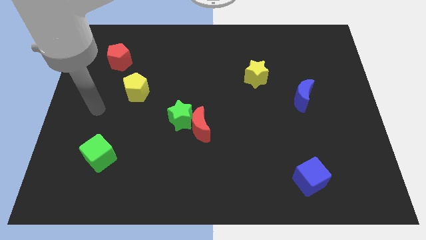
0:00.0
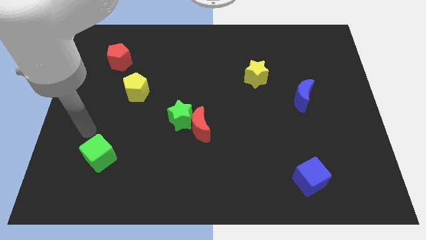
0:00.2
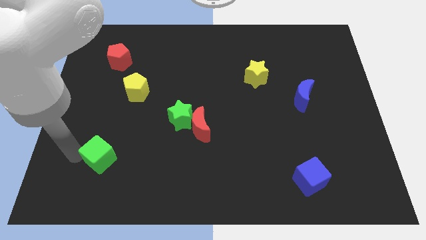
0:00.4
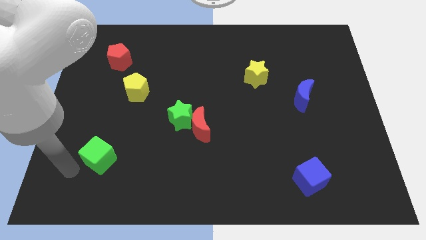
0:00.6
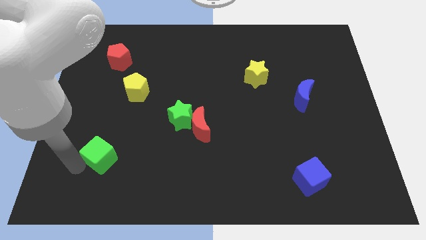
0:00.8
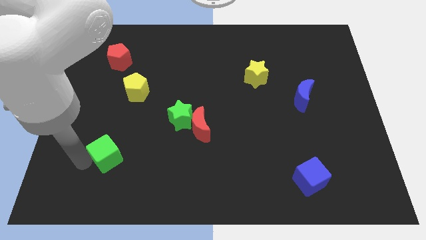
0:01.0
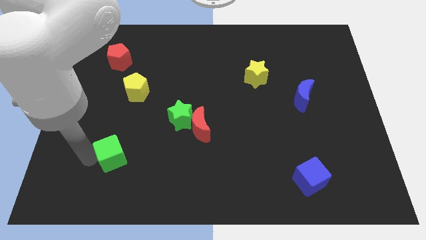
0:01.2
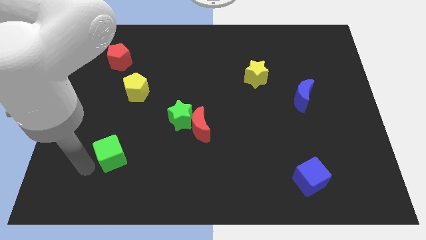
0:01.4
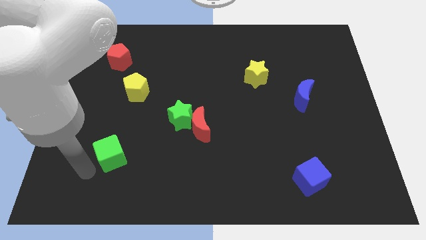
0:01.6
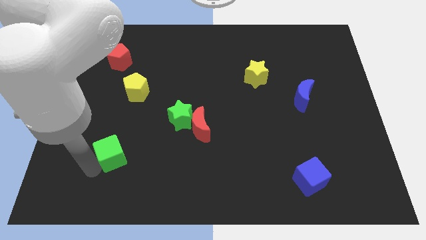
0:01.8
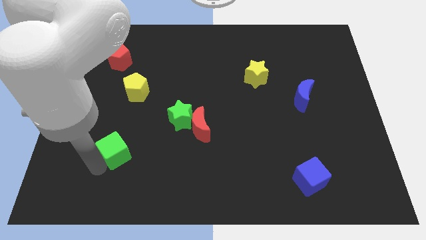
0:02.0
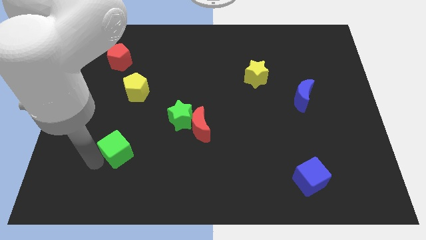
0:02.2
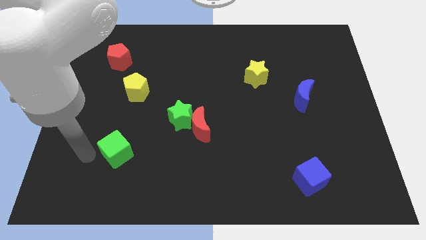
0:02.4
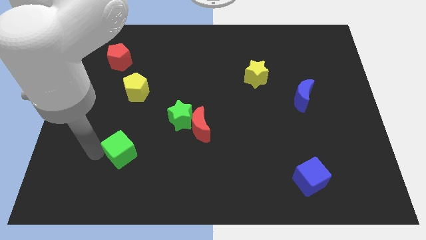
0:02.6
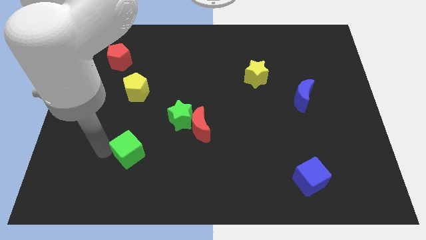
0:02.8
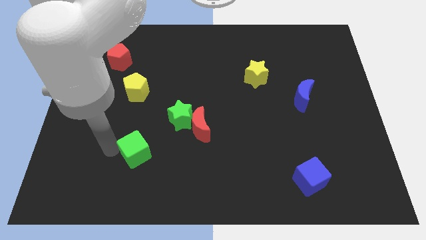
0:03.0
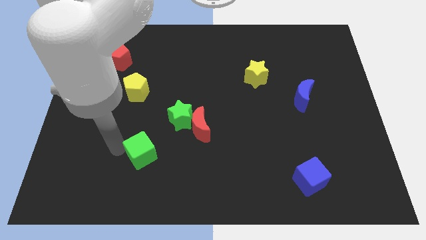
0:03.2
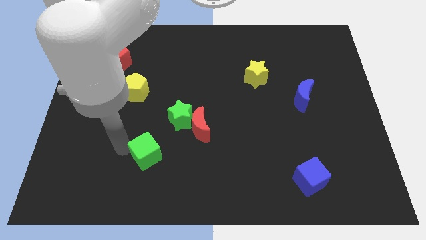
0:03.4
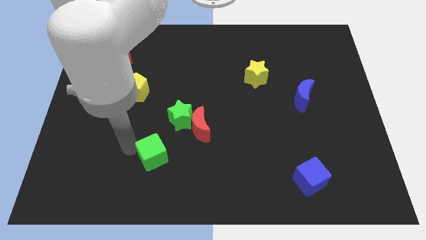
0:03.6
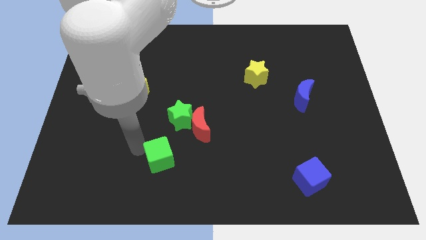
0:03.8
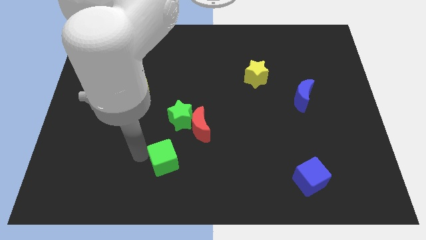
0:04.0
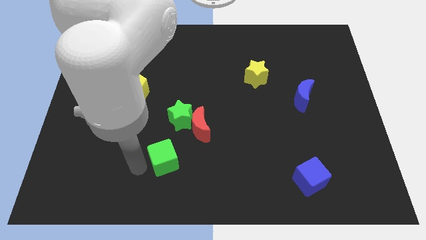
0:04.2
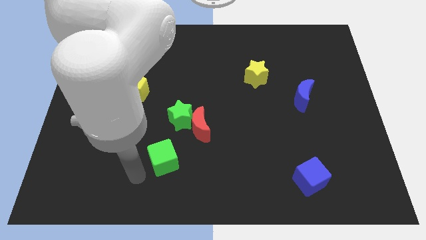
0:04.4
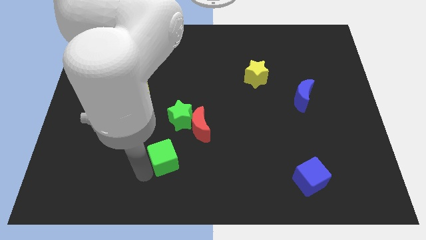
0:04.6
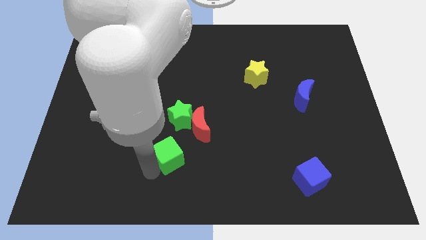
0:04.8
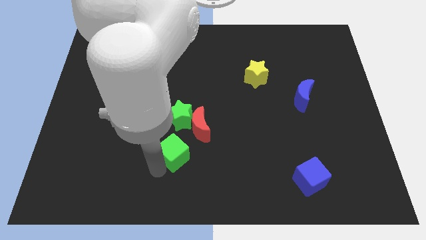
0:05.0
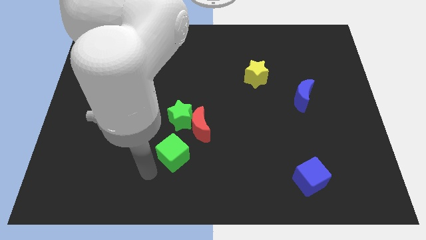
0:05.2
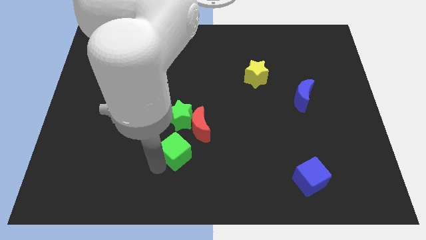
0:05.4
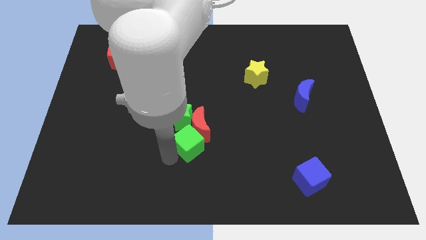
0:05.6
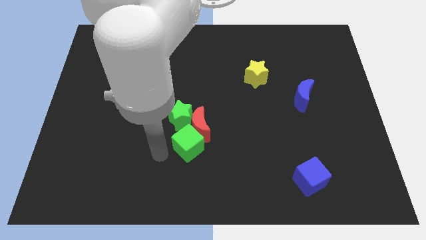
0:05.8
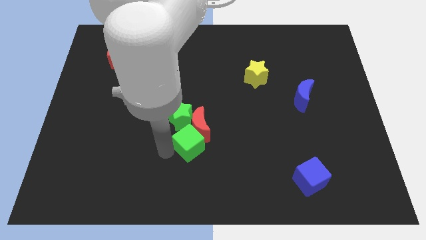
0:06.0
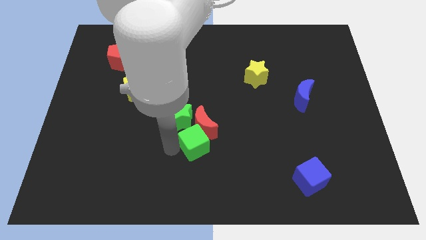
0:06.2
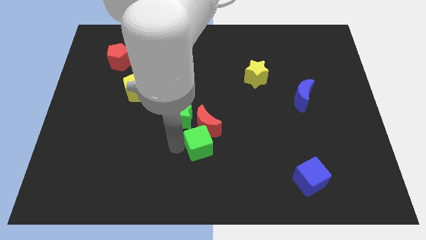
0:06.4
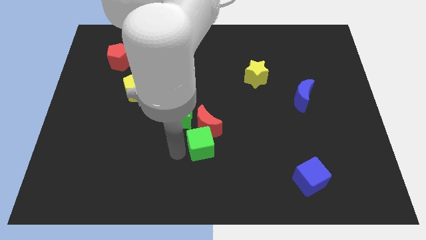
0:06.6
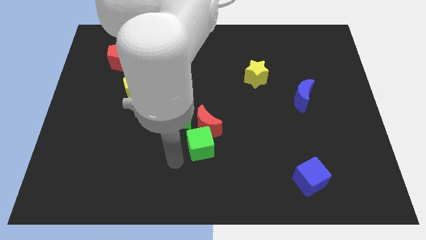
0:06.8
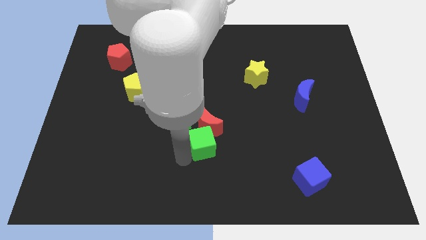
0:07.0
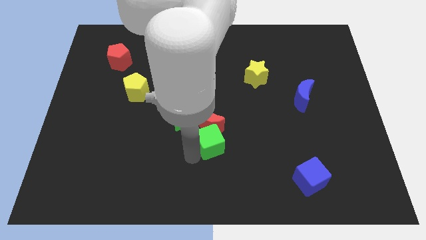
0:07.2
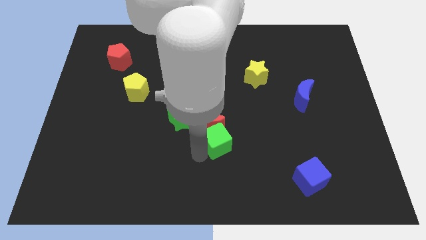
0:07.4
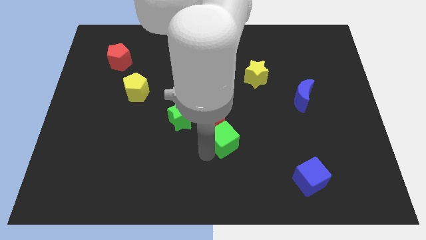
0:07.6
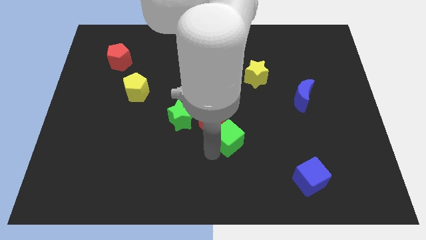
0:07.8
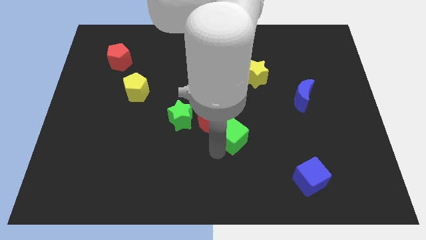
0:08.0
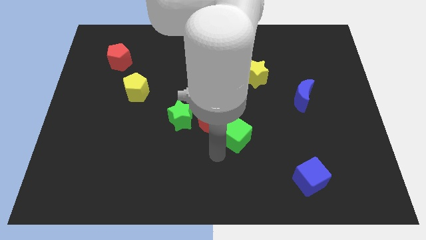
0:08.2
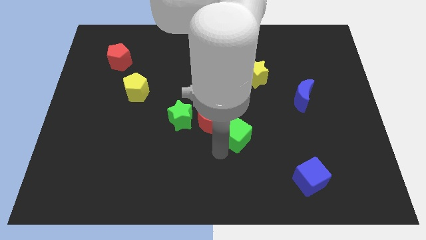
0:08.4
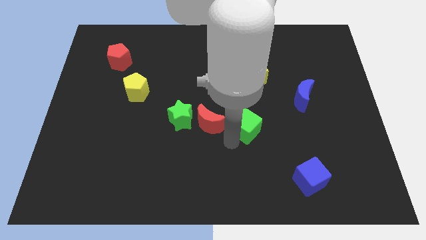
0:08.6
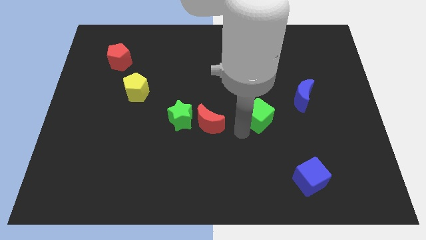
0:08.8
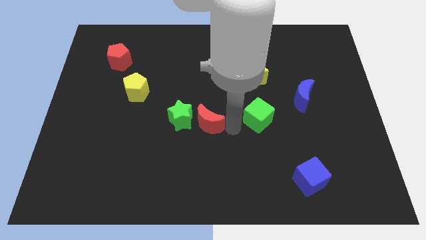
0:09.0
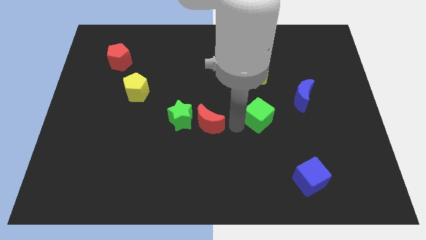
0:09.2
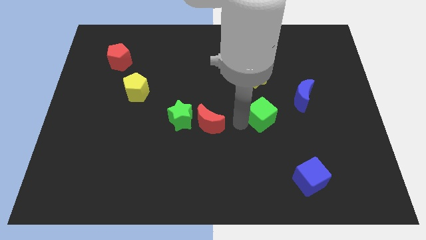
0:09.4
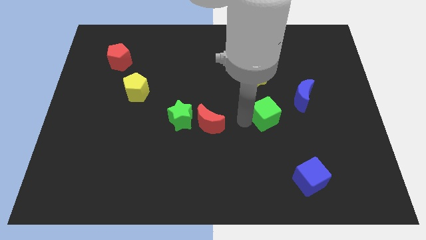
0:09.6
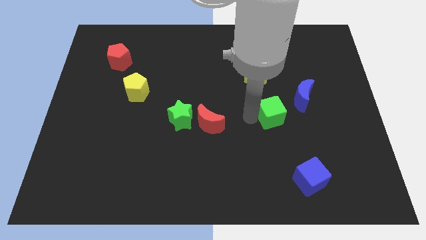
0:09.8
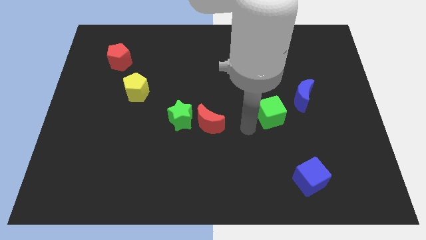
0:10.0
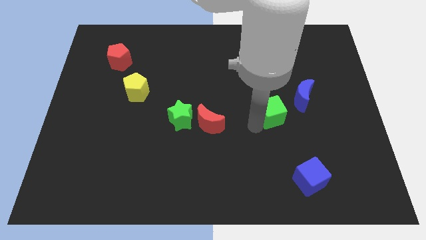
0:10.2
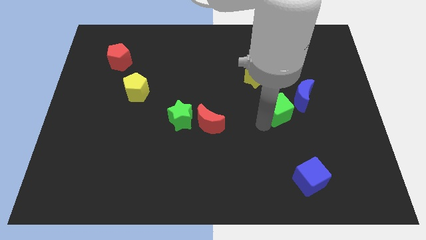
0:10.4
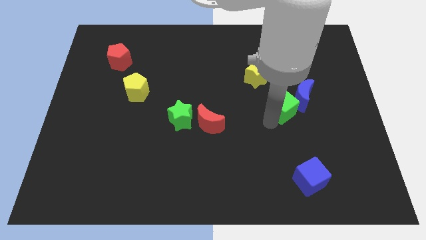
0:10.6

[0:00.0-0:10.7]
put the green cube next to the blue moon

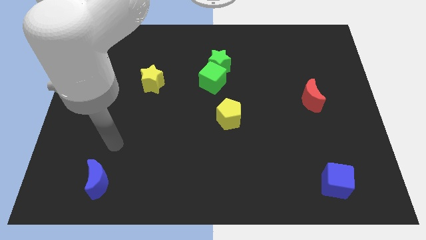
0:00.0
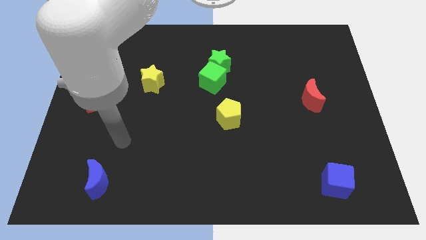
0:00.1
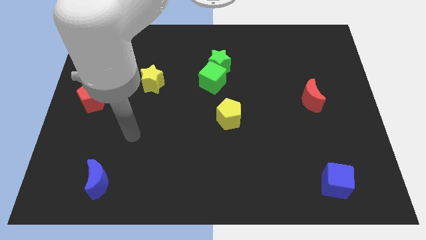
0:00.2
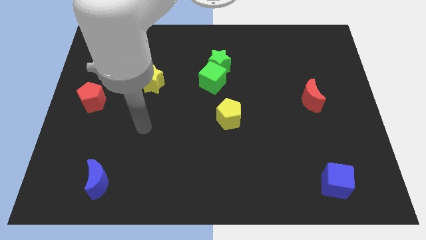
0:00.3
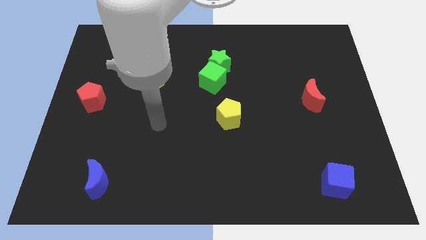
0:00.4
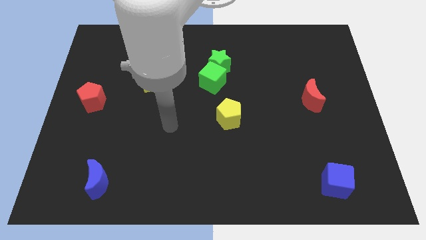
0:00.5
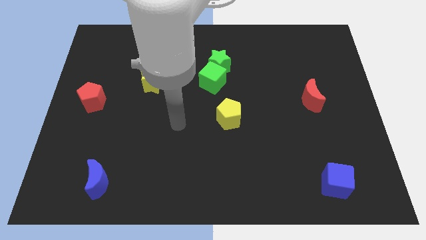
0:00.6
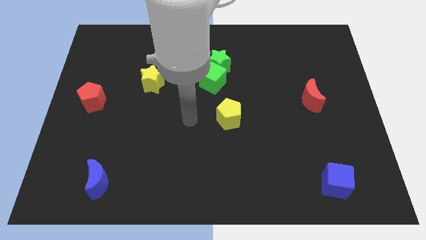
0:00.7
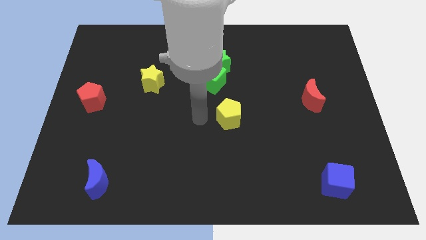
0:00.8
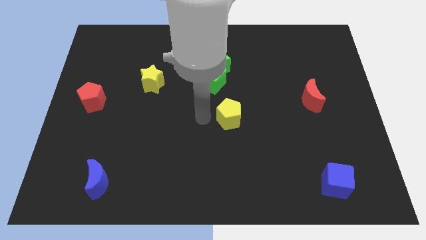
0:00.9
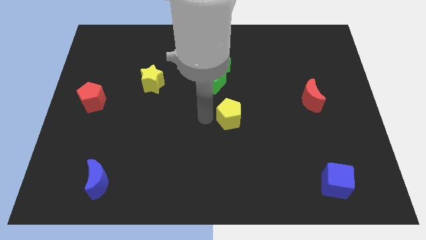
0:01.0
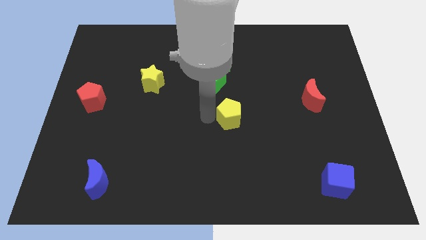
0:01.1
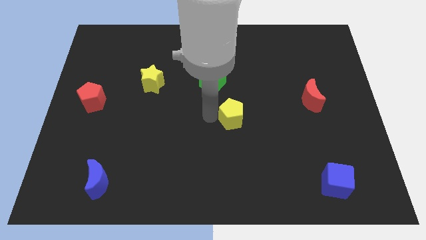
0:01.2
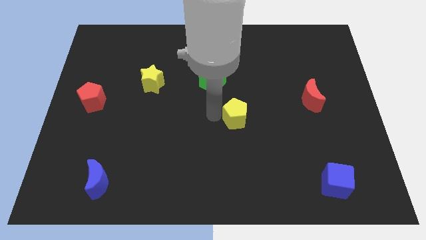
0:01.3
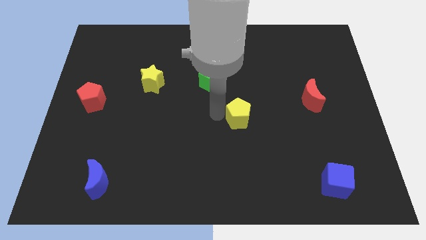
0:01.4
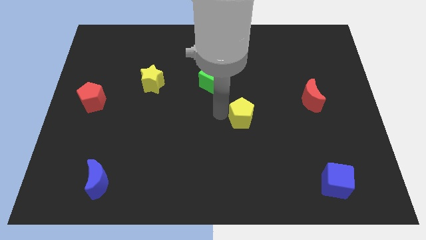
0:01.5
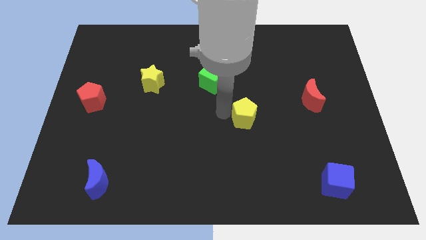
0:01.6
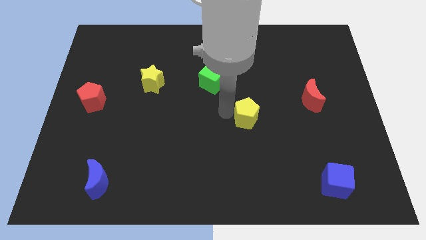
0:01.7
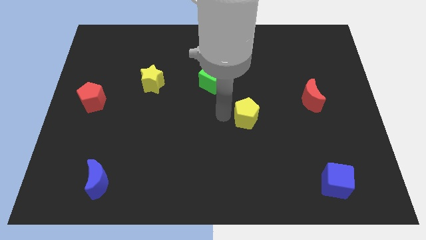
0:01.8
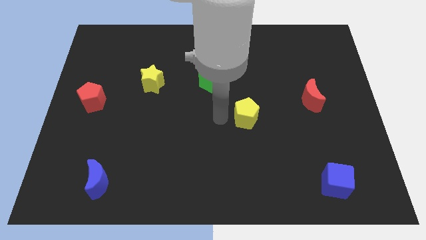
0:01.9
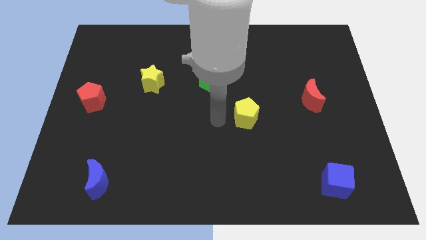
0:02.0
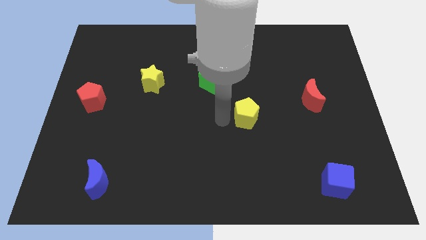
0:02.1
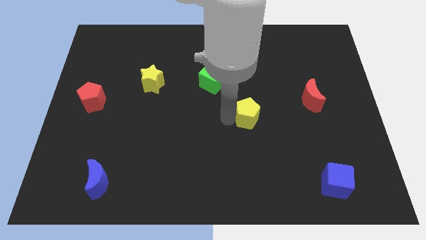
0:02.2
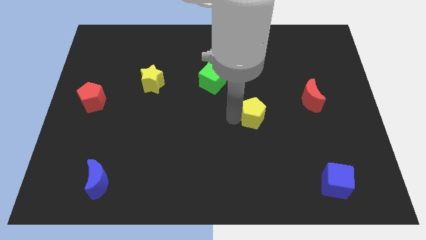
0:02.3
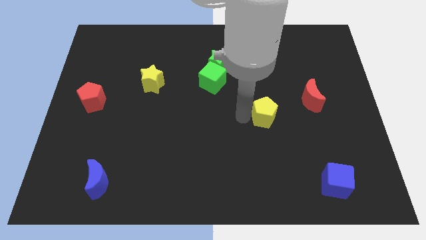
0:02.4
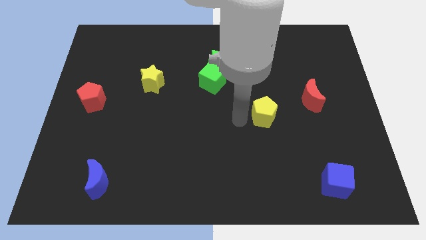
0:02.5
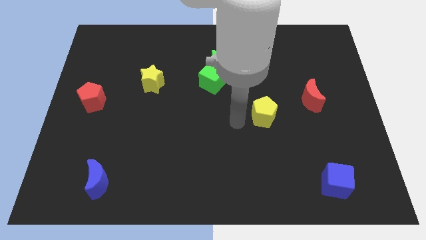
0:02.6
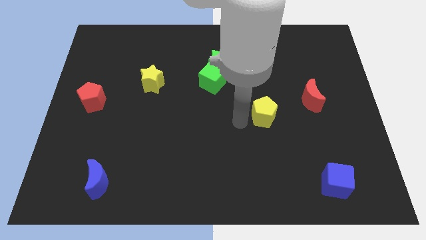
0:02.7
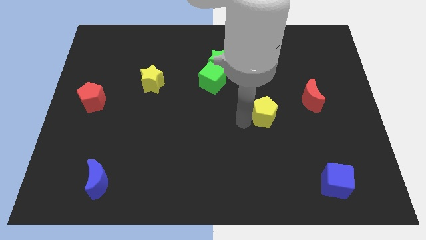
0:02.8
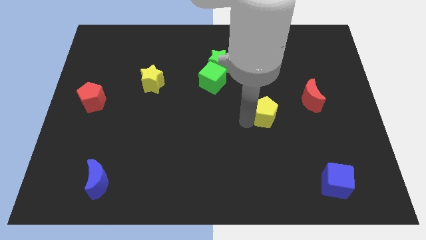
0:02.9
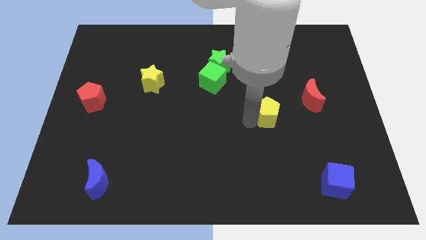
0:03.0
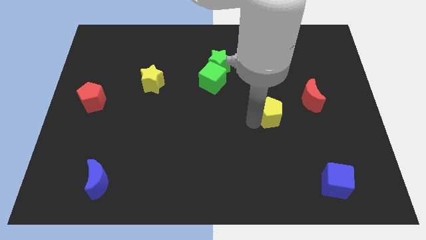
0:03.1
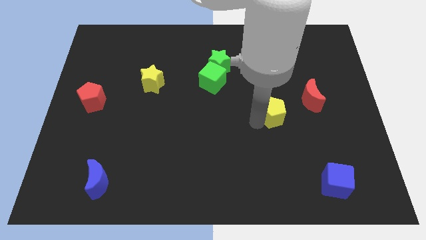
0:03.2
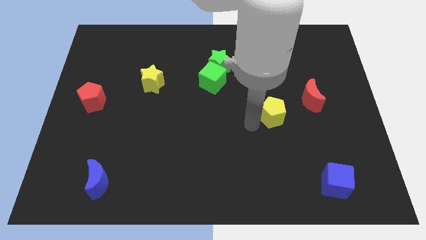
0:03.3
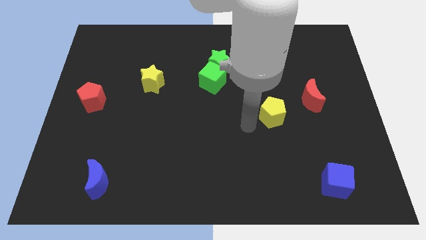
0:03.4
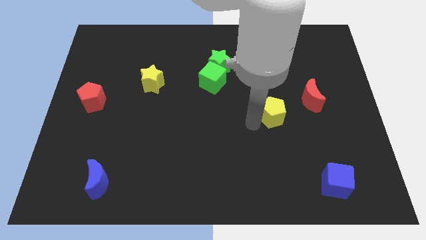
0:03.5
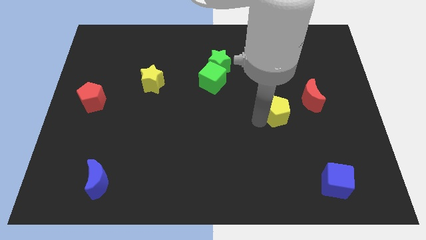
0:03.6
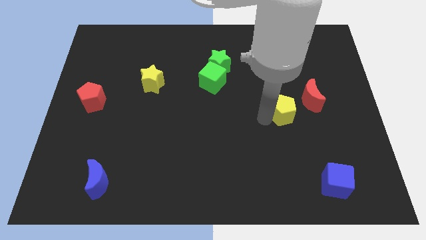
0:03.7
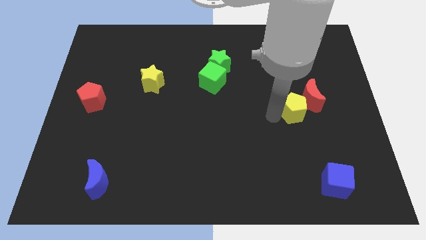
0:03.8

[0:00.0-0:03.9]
slide the yellow pentagon next to the red moon
